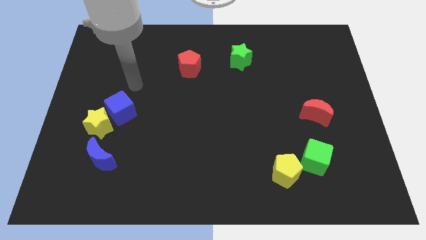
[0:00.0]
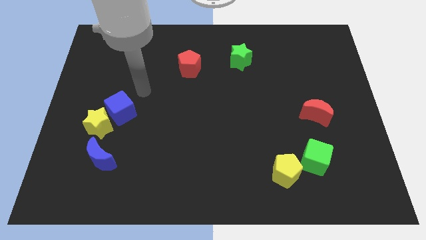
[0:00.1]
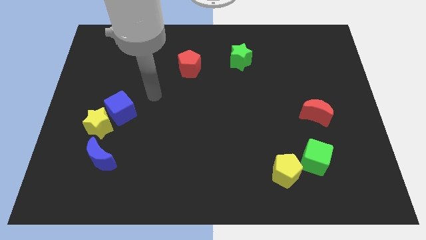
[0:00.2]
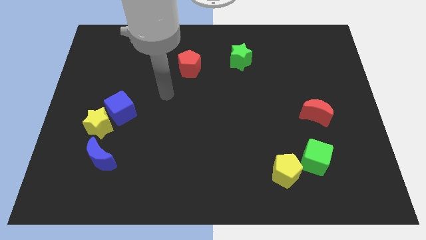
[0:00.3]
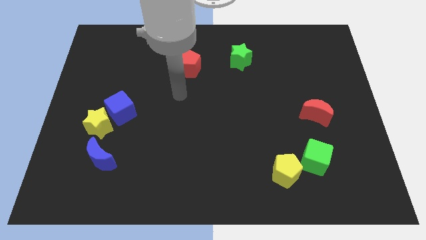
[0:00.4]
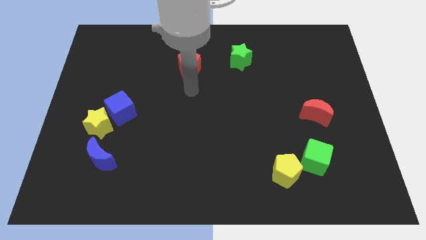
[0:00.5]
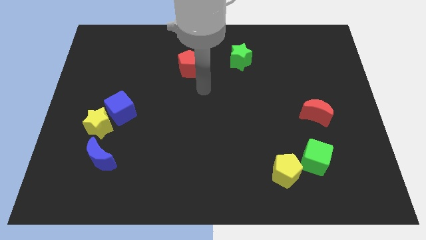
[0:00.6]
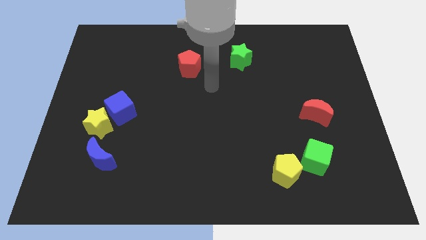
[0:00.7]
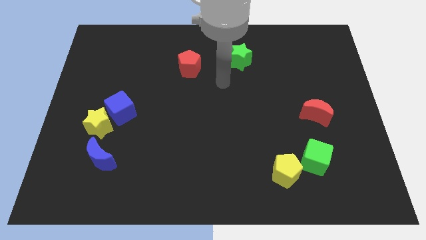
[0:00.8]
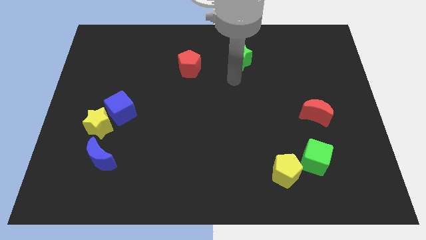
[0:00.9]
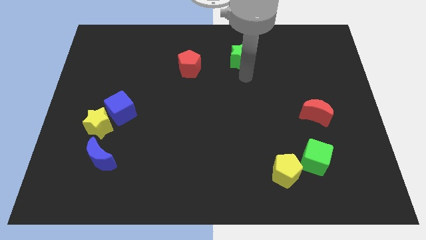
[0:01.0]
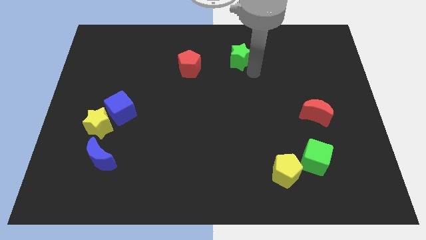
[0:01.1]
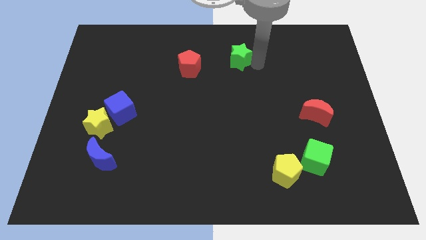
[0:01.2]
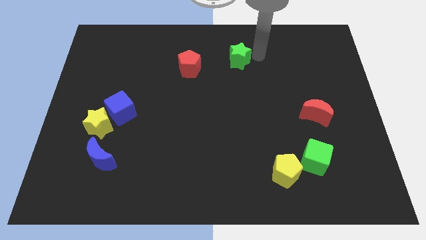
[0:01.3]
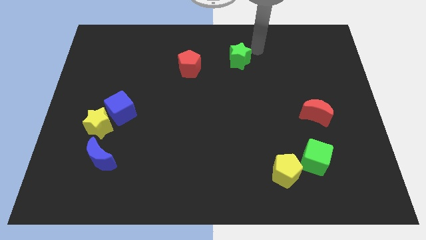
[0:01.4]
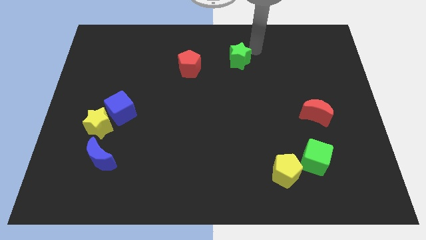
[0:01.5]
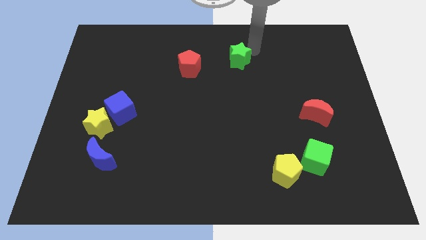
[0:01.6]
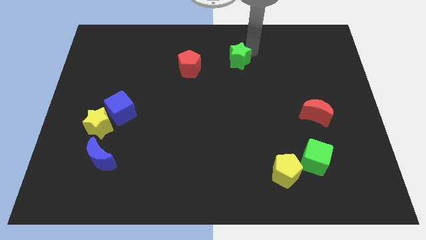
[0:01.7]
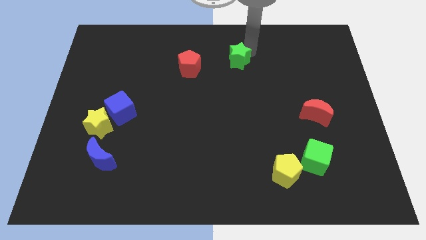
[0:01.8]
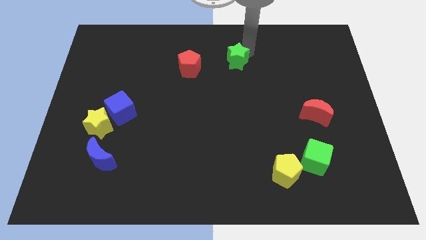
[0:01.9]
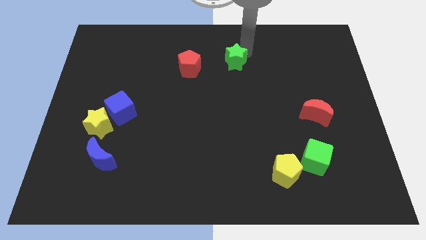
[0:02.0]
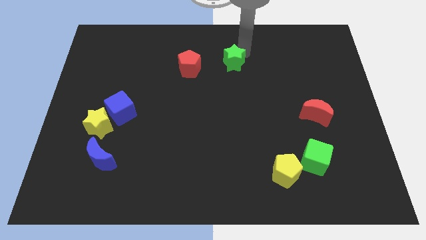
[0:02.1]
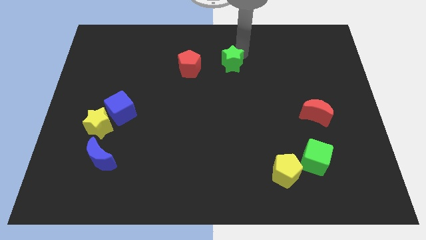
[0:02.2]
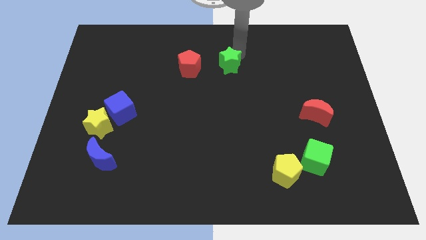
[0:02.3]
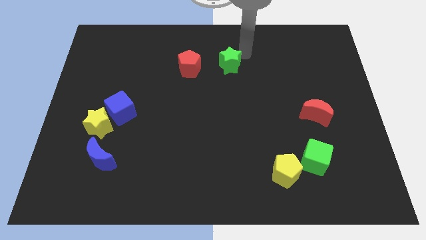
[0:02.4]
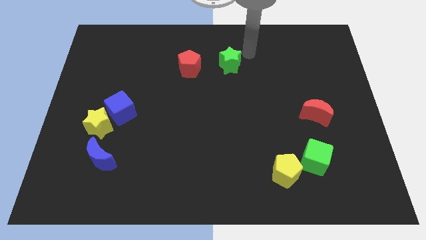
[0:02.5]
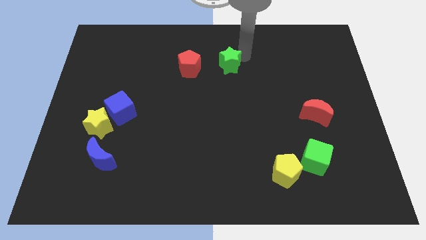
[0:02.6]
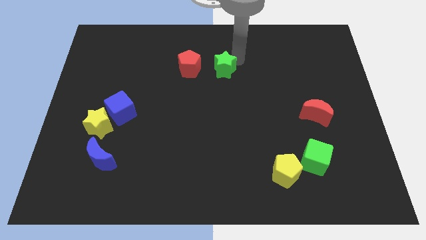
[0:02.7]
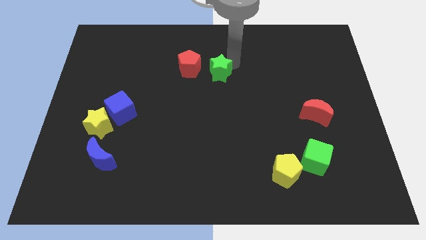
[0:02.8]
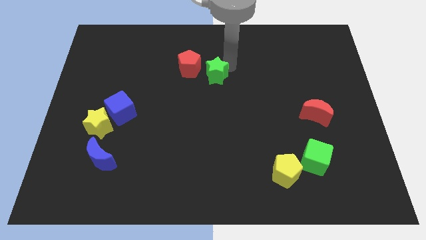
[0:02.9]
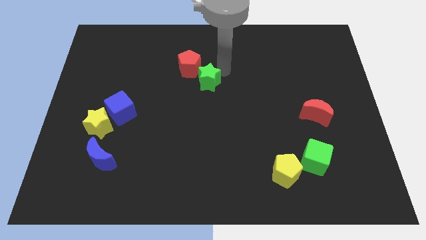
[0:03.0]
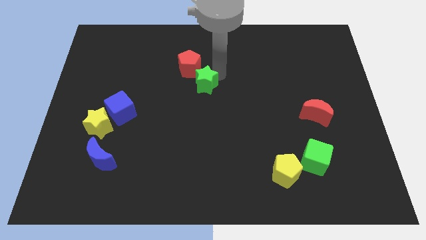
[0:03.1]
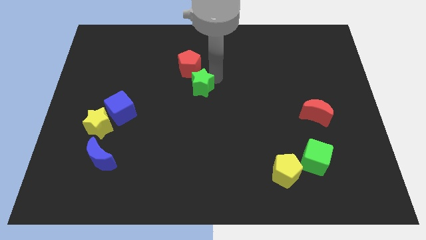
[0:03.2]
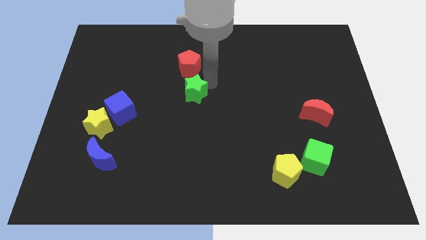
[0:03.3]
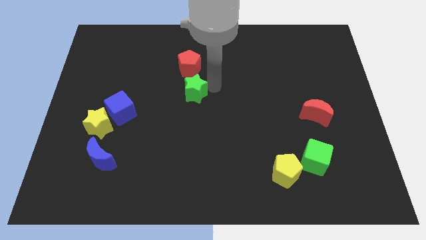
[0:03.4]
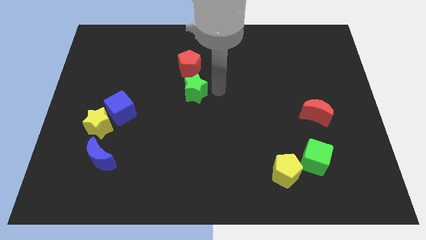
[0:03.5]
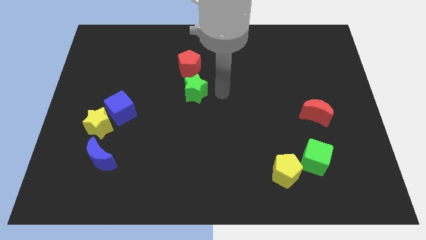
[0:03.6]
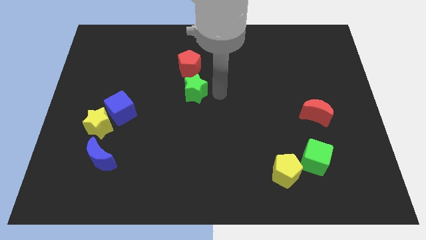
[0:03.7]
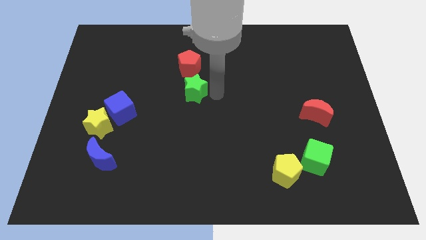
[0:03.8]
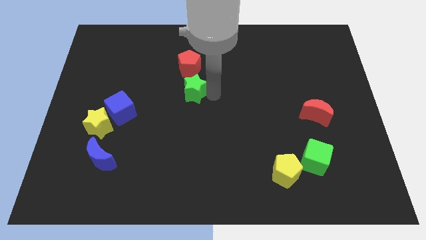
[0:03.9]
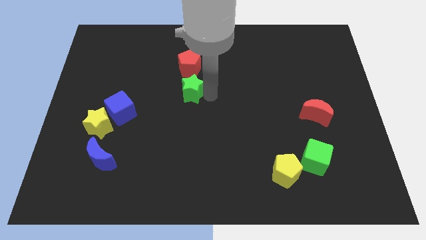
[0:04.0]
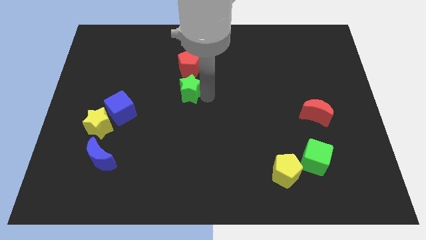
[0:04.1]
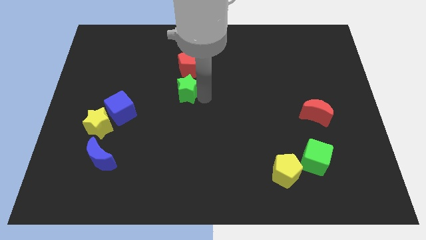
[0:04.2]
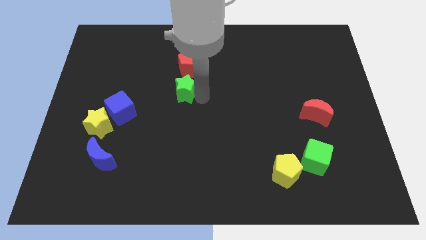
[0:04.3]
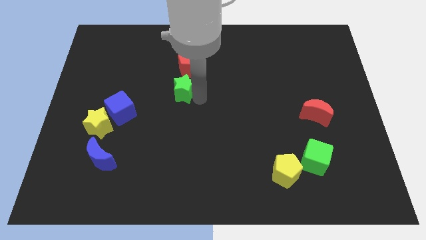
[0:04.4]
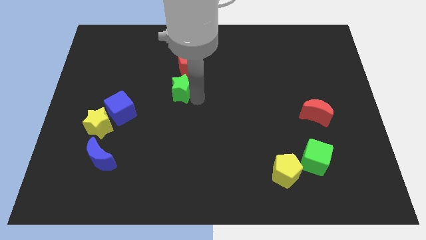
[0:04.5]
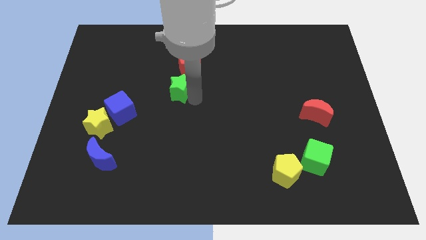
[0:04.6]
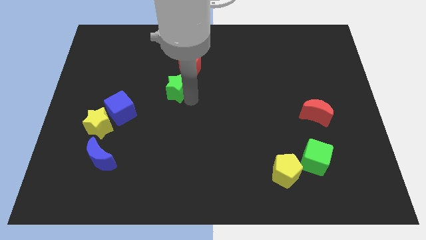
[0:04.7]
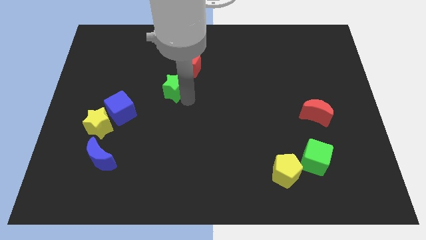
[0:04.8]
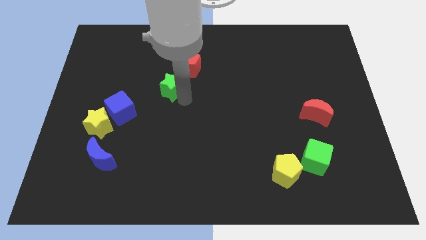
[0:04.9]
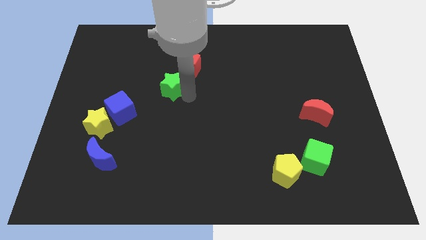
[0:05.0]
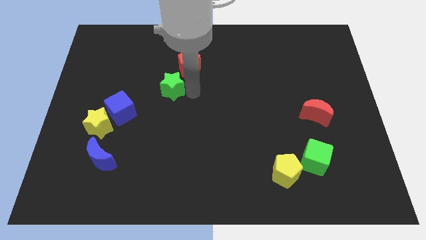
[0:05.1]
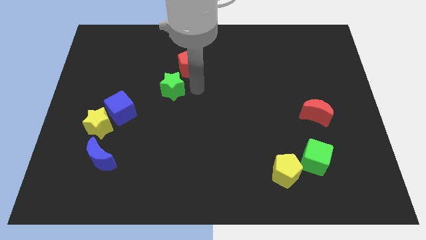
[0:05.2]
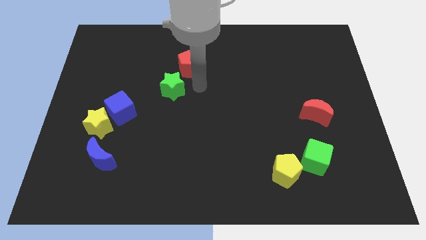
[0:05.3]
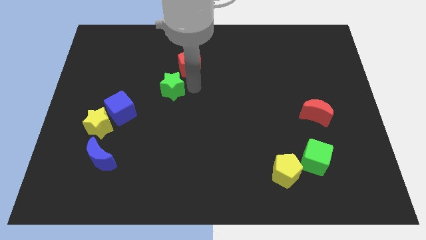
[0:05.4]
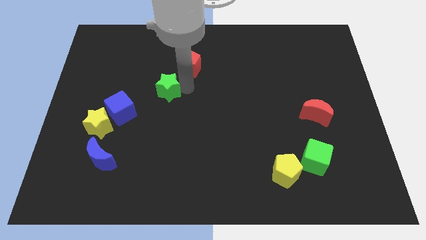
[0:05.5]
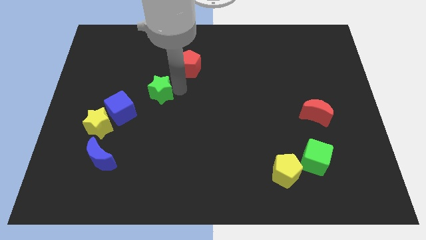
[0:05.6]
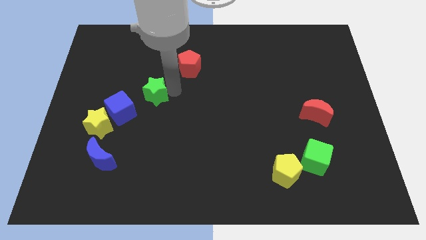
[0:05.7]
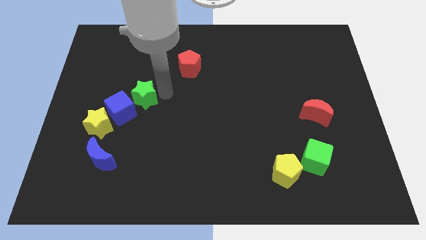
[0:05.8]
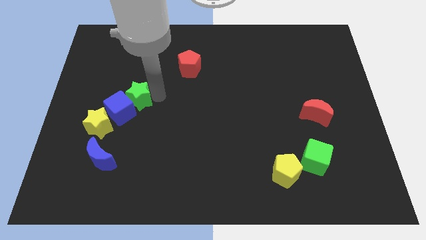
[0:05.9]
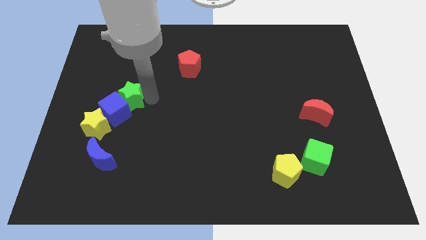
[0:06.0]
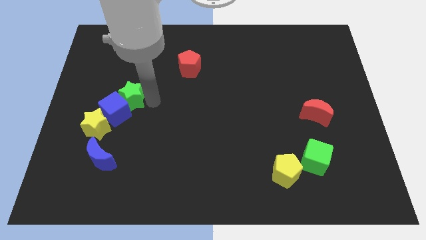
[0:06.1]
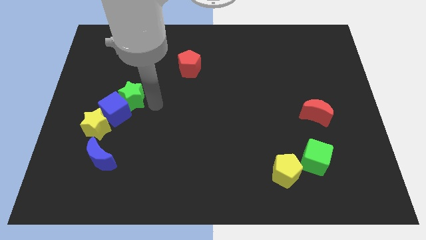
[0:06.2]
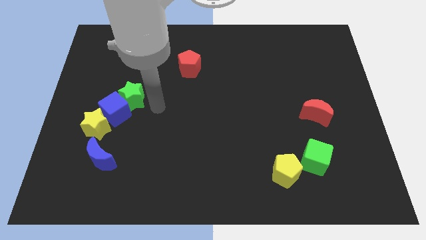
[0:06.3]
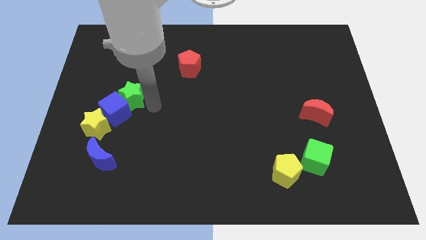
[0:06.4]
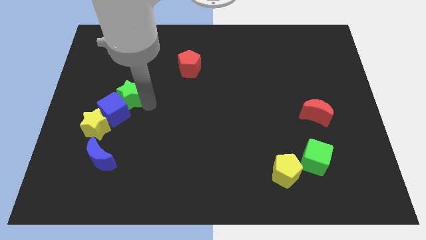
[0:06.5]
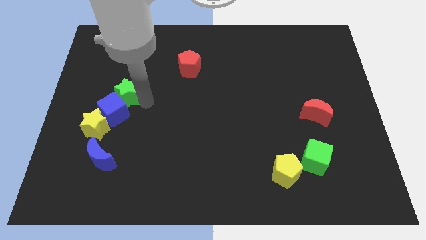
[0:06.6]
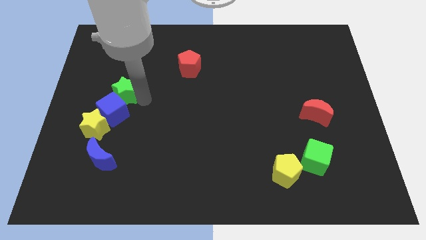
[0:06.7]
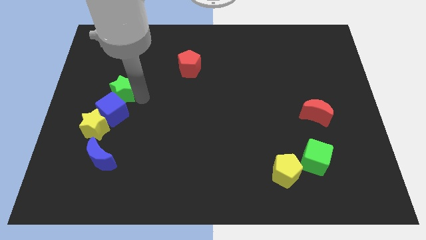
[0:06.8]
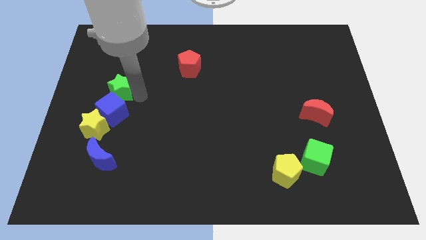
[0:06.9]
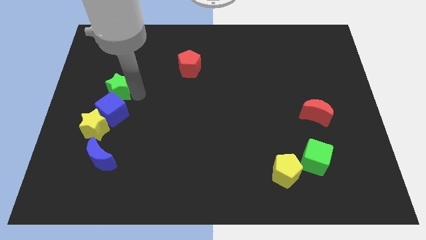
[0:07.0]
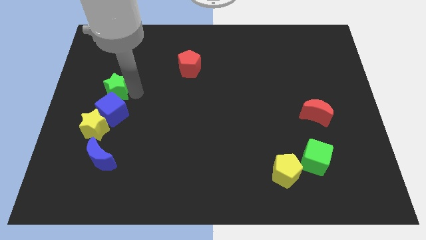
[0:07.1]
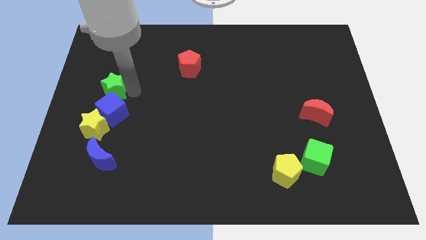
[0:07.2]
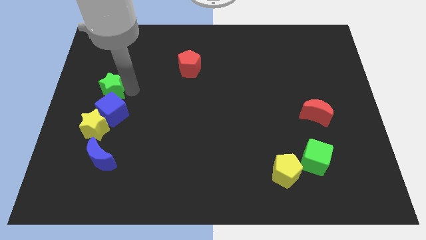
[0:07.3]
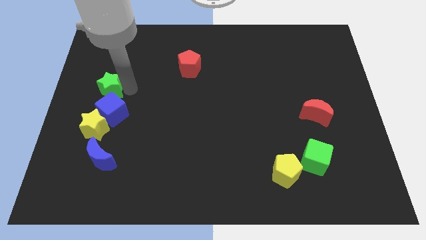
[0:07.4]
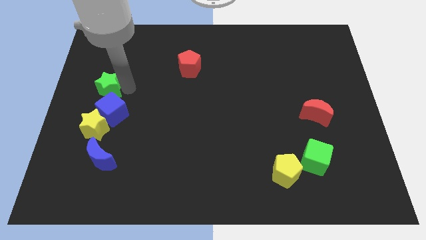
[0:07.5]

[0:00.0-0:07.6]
move the green star to the left side of the board
